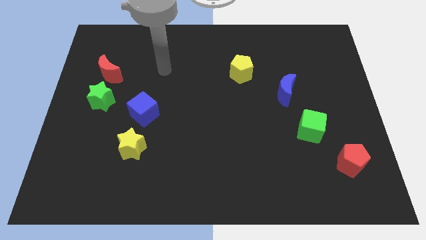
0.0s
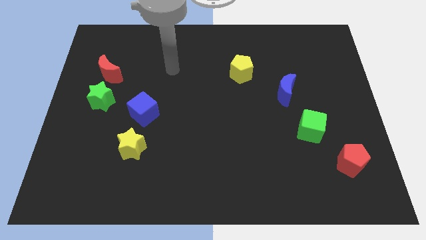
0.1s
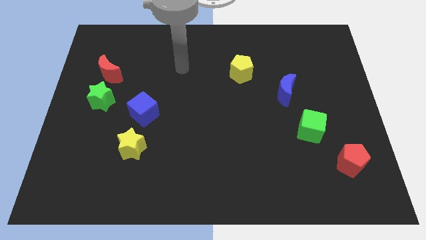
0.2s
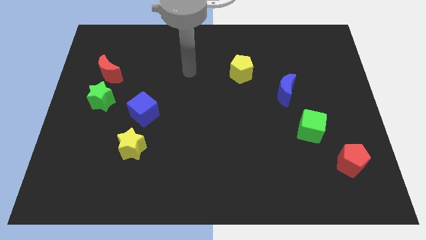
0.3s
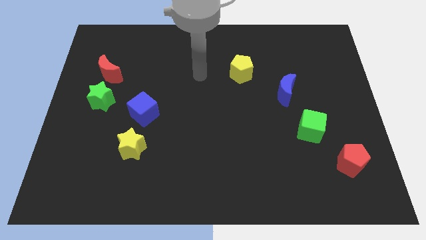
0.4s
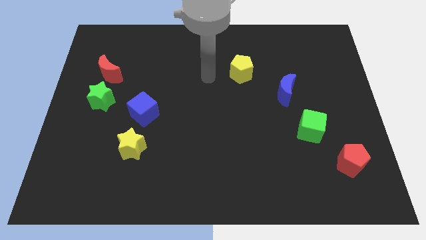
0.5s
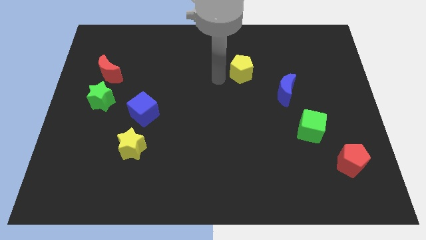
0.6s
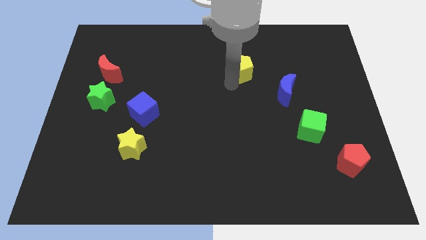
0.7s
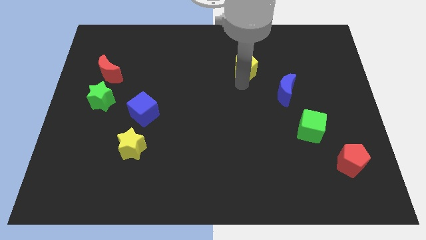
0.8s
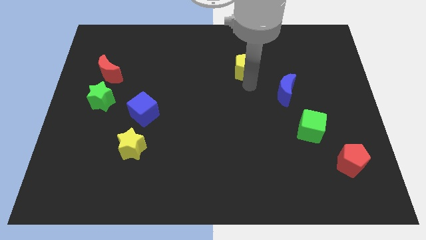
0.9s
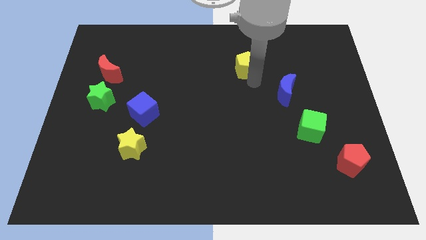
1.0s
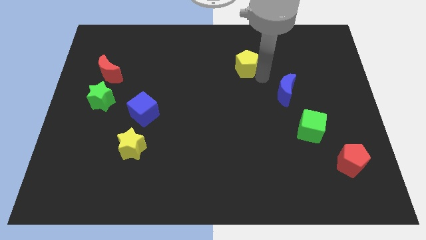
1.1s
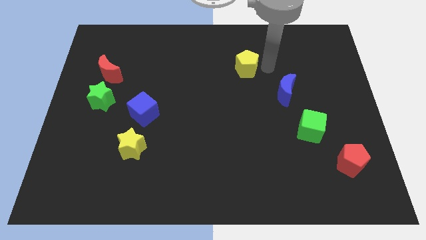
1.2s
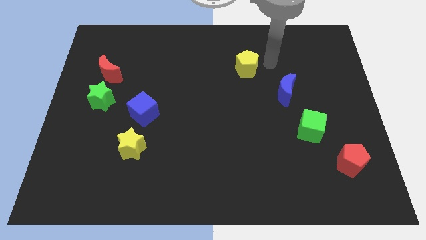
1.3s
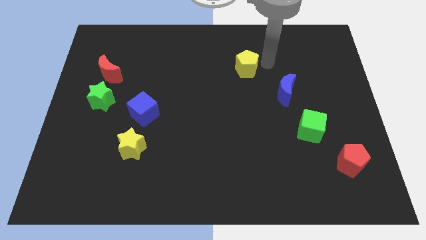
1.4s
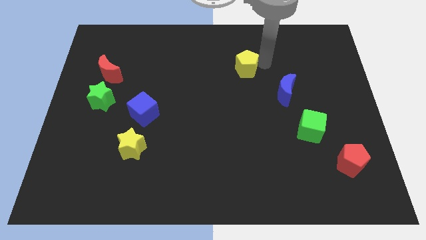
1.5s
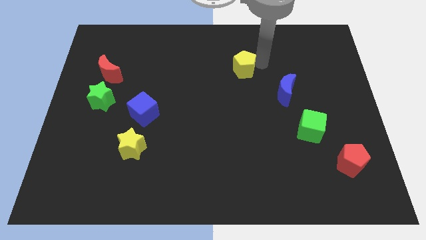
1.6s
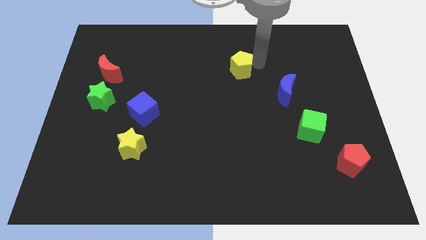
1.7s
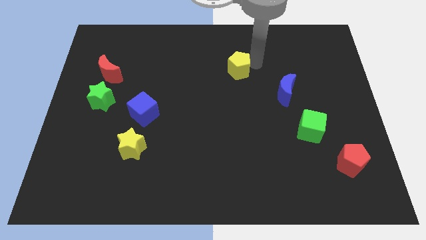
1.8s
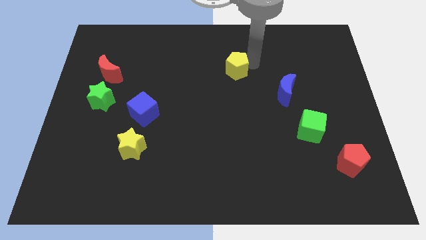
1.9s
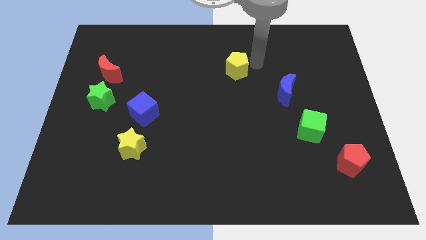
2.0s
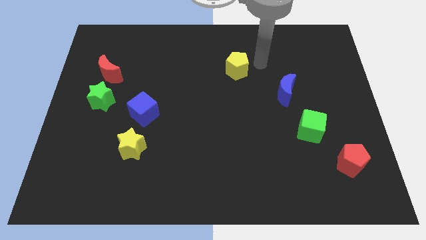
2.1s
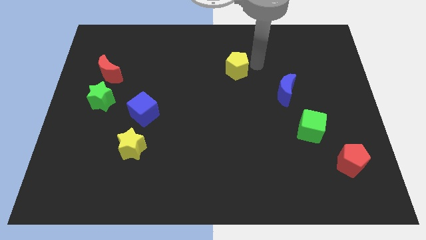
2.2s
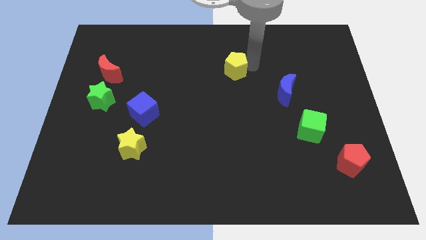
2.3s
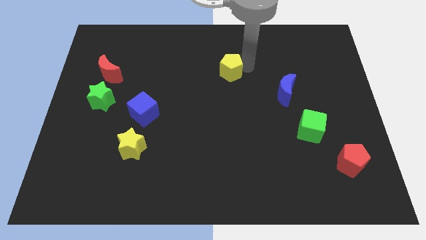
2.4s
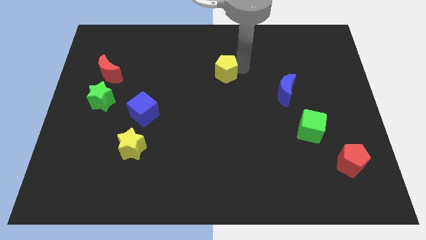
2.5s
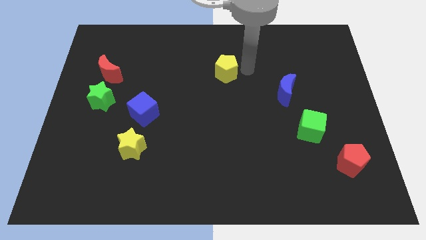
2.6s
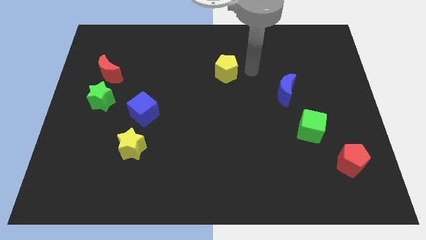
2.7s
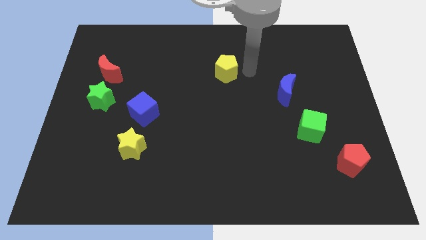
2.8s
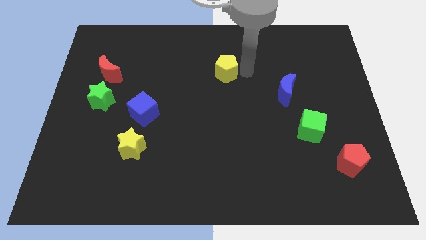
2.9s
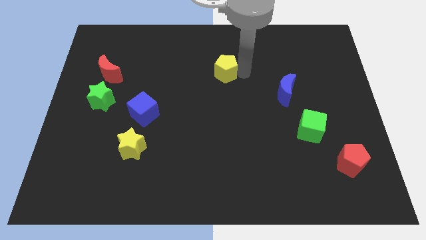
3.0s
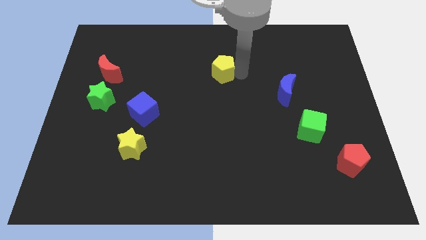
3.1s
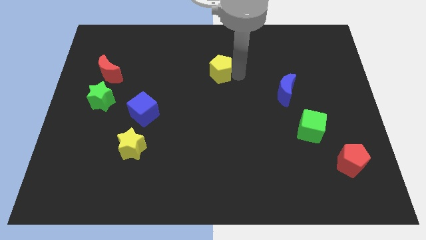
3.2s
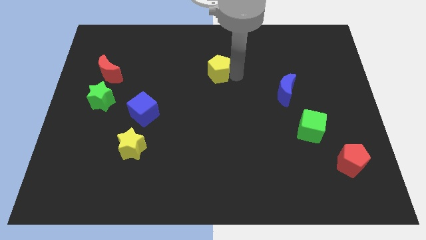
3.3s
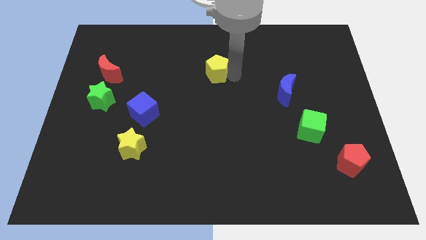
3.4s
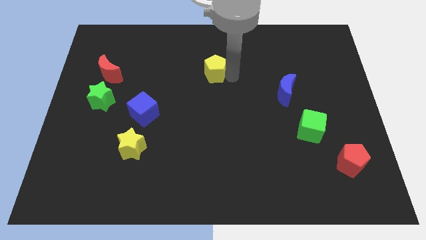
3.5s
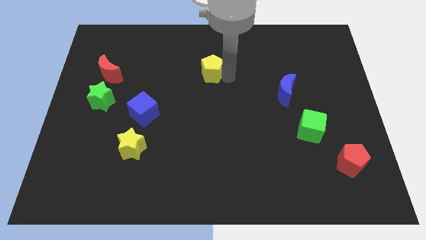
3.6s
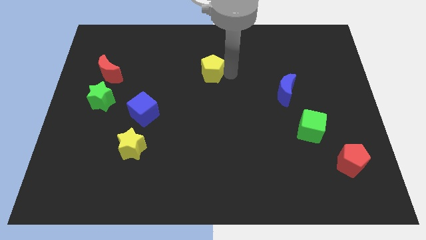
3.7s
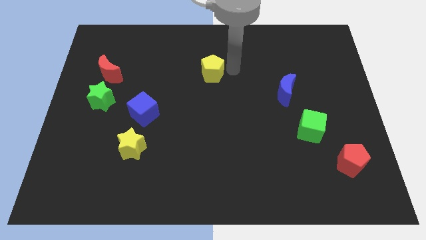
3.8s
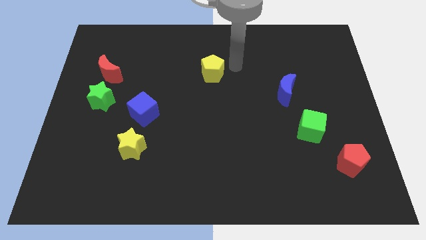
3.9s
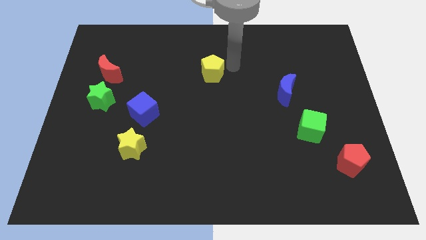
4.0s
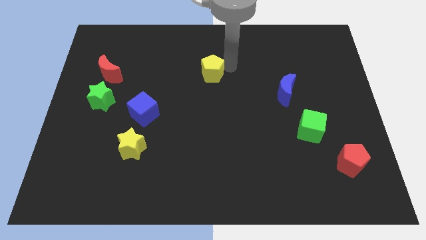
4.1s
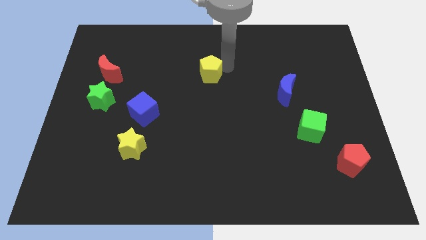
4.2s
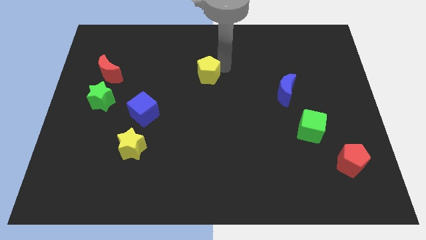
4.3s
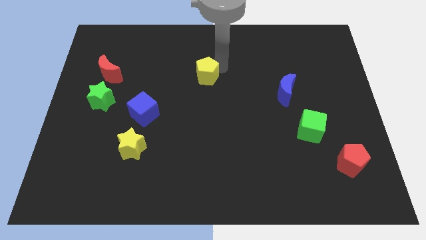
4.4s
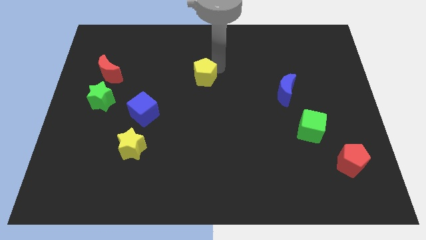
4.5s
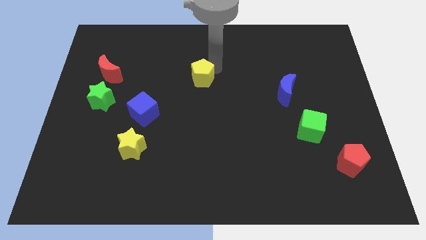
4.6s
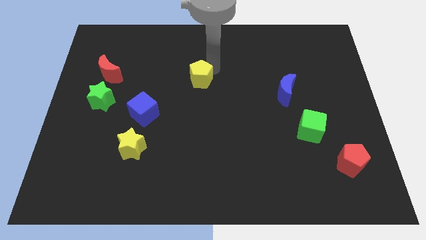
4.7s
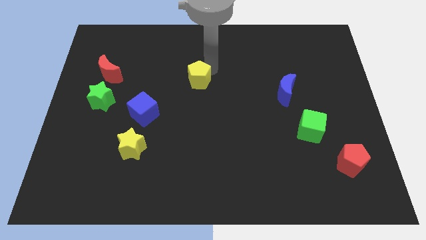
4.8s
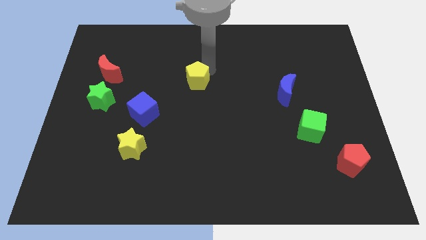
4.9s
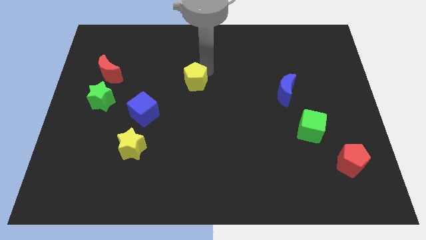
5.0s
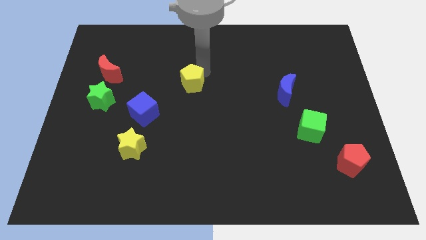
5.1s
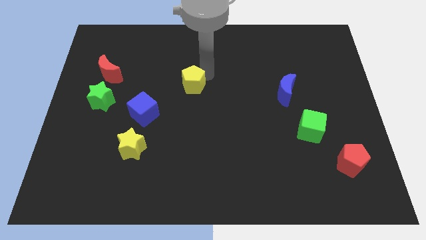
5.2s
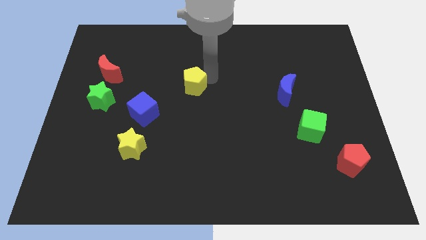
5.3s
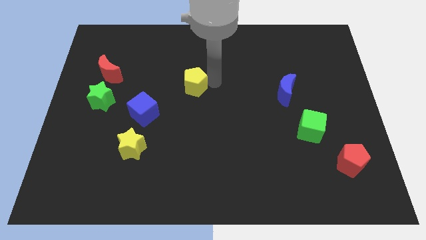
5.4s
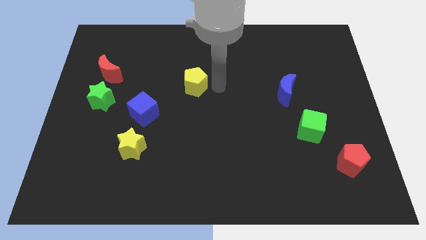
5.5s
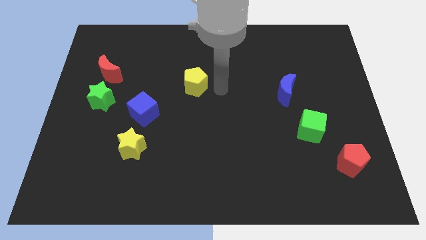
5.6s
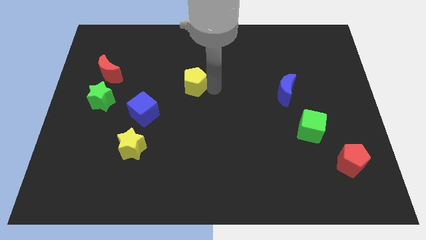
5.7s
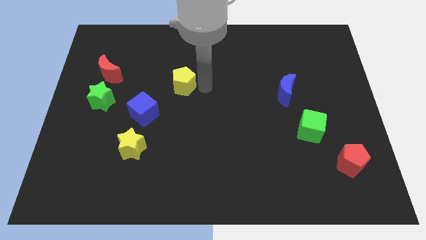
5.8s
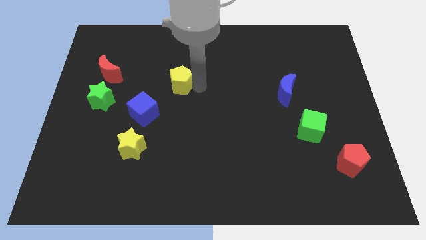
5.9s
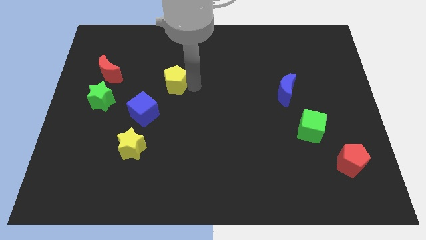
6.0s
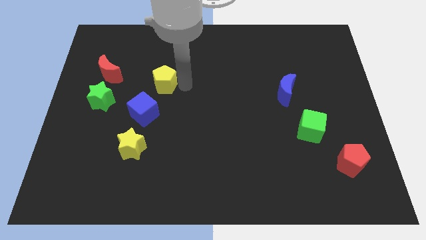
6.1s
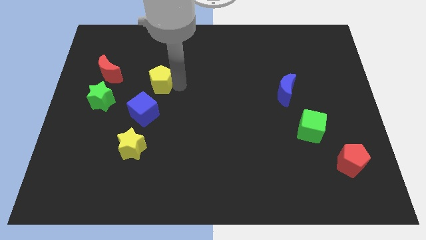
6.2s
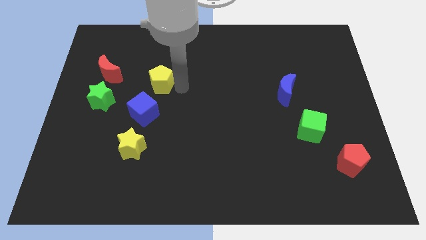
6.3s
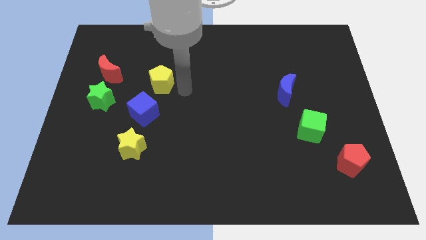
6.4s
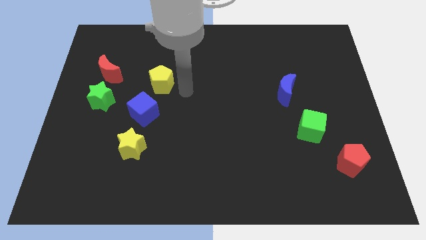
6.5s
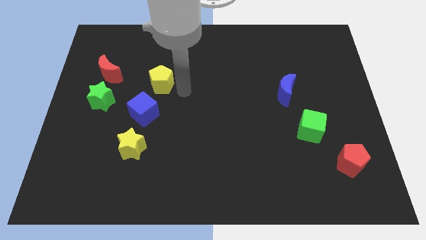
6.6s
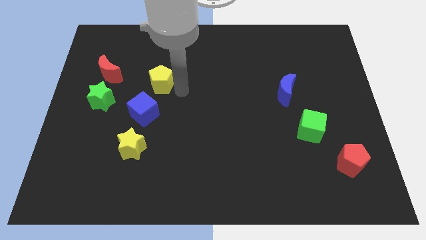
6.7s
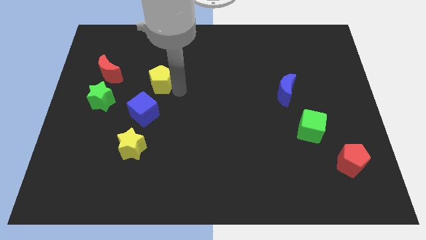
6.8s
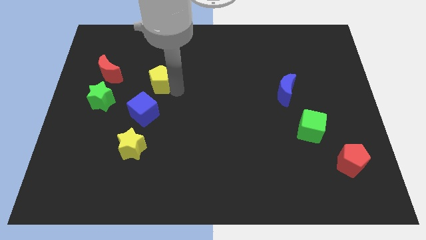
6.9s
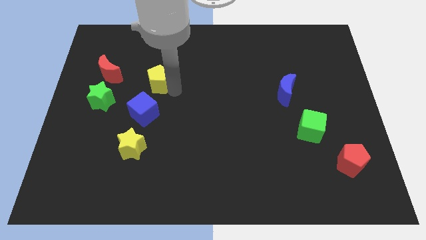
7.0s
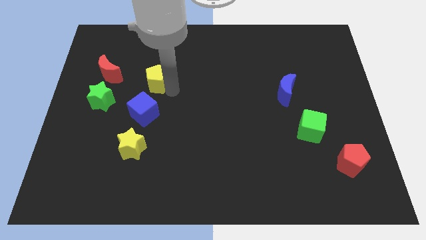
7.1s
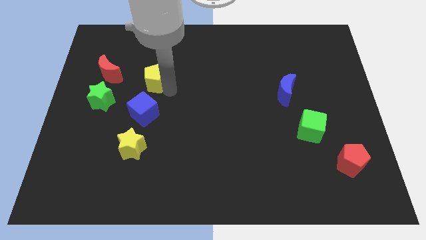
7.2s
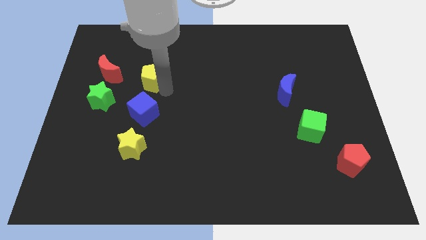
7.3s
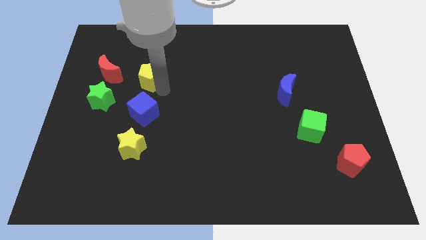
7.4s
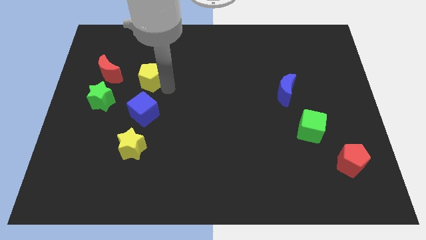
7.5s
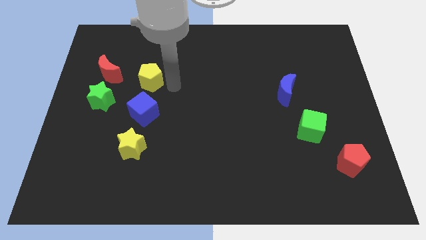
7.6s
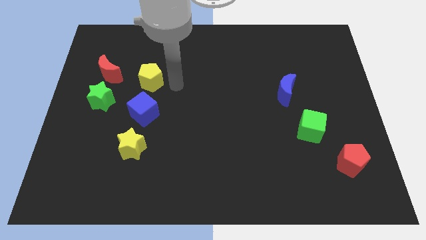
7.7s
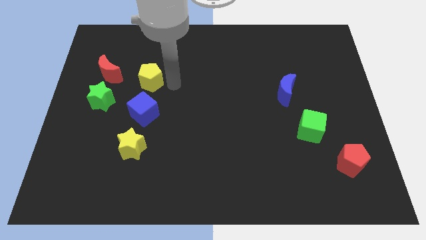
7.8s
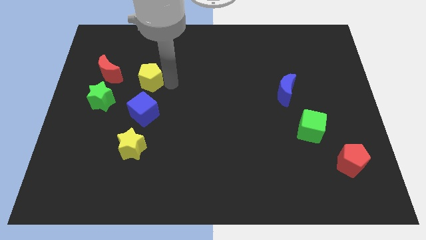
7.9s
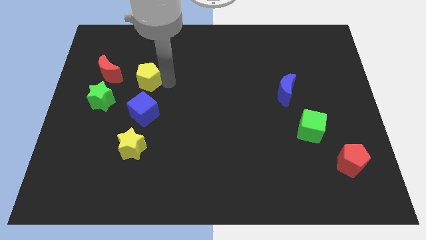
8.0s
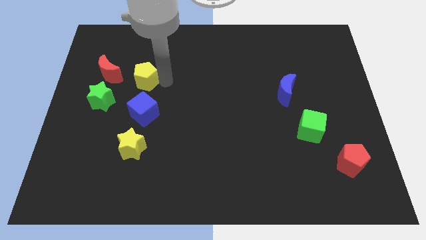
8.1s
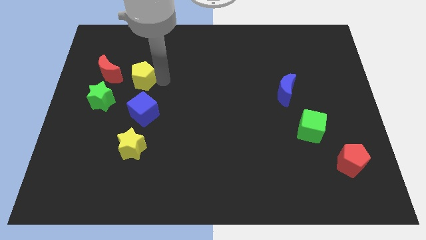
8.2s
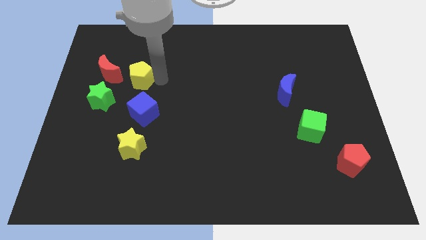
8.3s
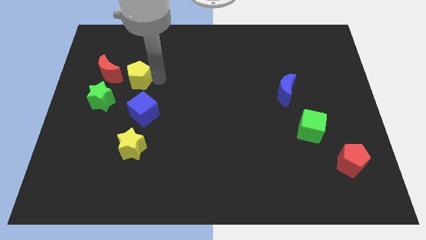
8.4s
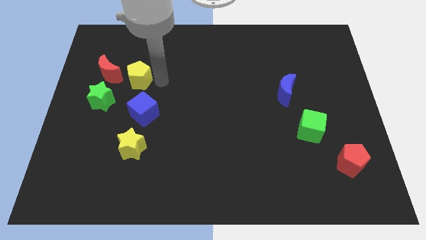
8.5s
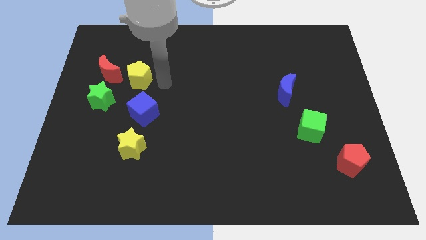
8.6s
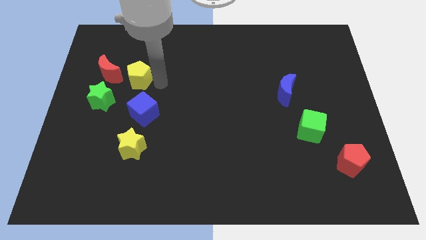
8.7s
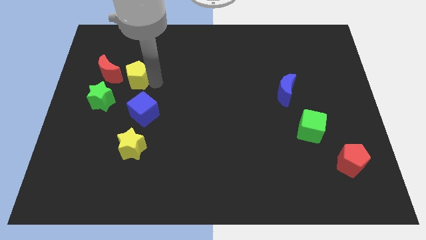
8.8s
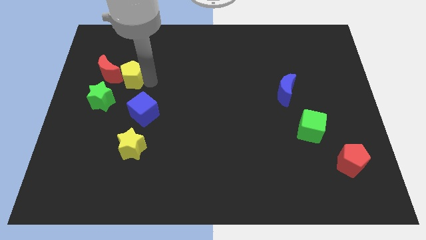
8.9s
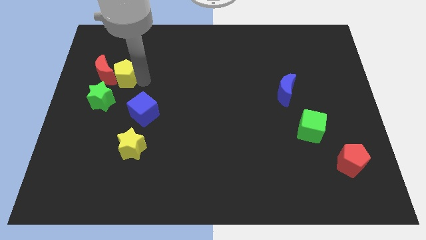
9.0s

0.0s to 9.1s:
slide the yellow pentagon to the red moon
